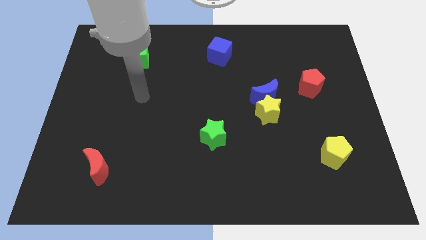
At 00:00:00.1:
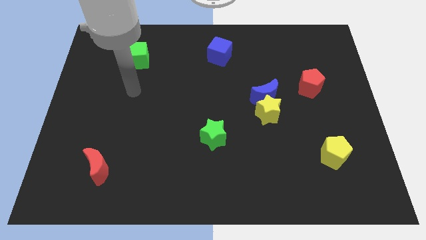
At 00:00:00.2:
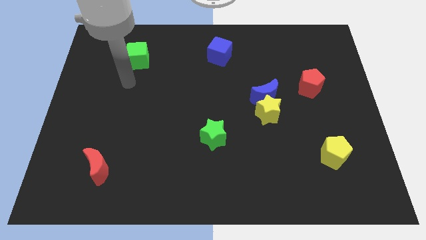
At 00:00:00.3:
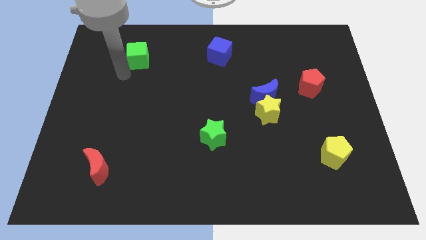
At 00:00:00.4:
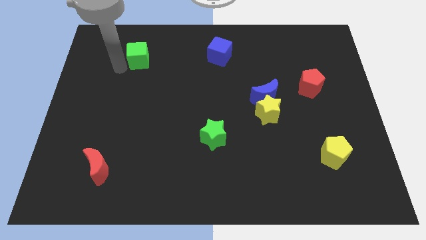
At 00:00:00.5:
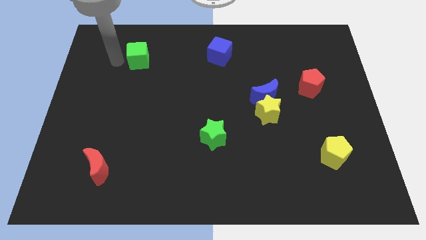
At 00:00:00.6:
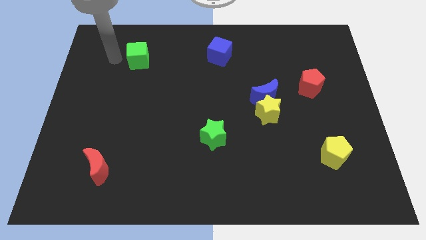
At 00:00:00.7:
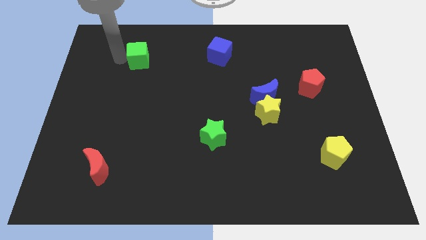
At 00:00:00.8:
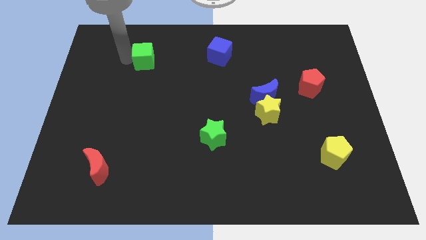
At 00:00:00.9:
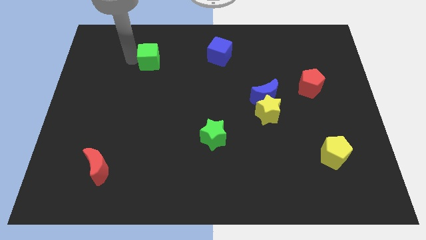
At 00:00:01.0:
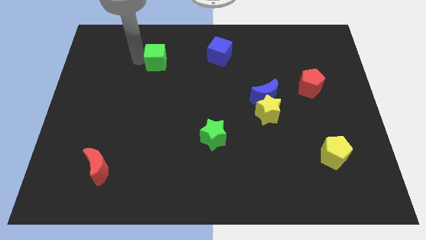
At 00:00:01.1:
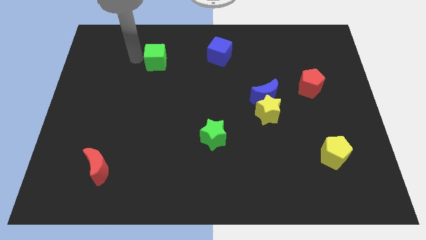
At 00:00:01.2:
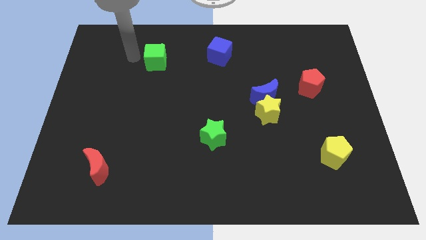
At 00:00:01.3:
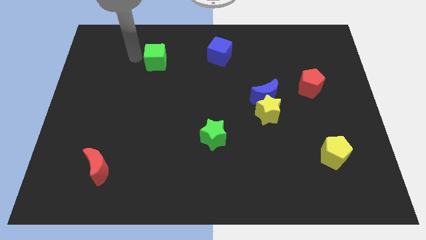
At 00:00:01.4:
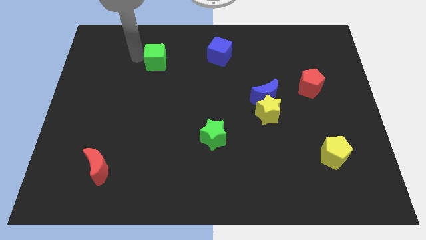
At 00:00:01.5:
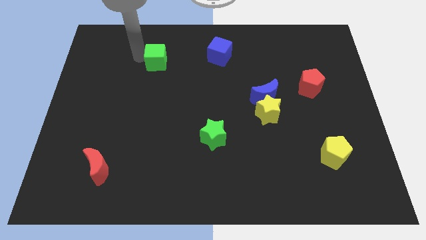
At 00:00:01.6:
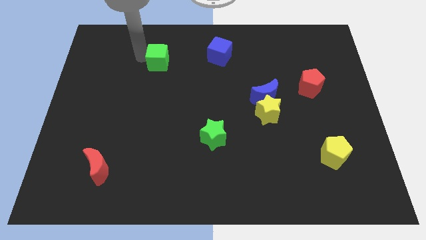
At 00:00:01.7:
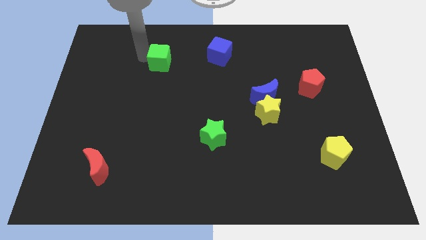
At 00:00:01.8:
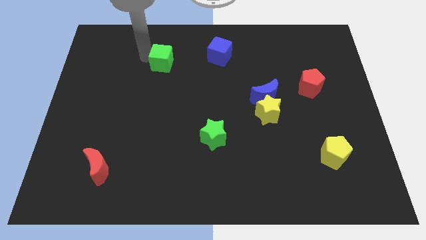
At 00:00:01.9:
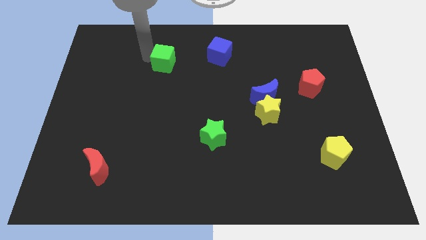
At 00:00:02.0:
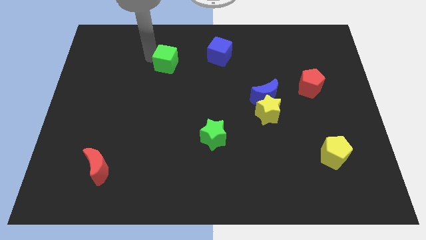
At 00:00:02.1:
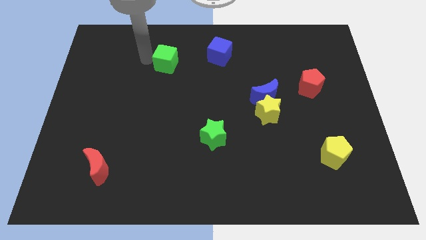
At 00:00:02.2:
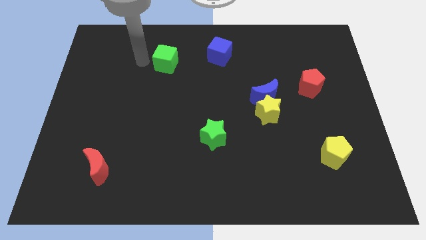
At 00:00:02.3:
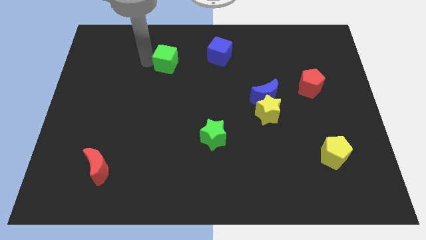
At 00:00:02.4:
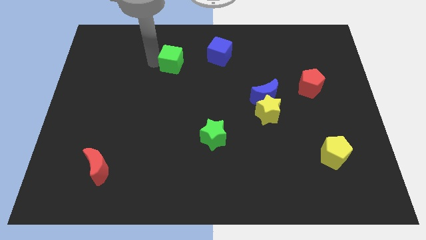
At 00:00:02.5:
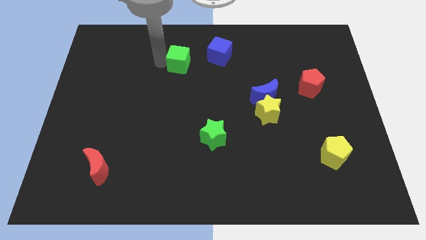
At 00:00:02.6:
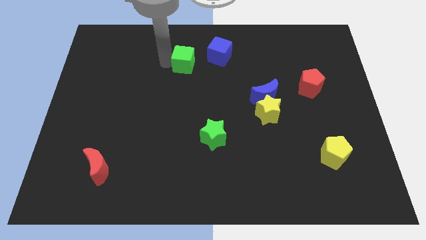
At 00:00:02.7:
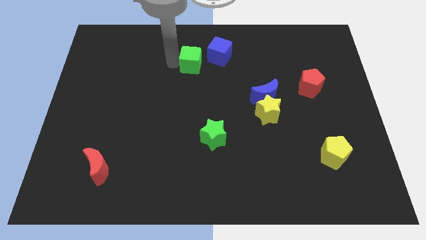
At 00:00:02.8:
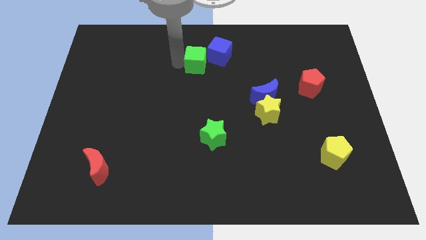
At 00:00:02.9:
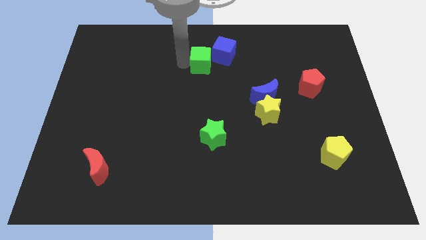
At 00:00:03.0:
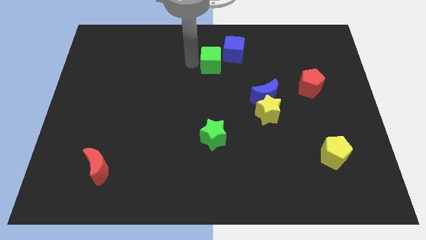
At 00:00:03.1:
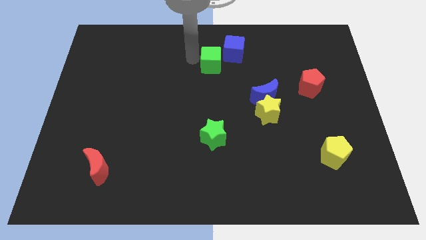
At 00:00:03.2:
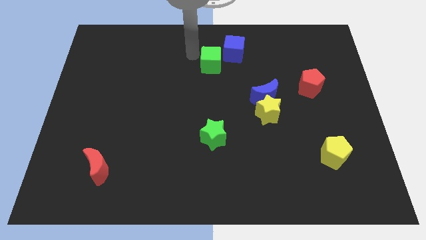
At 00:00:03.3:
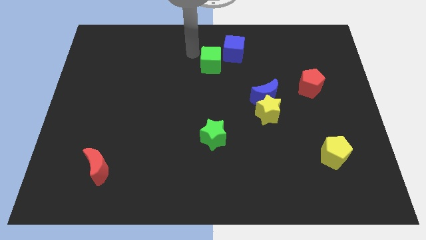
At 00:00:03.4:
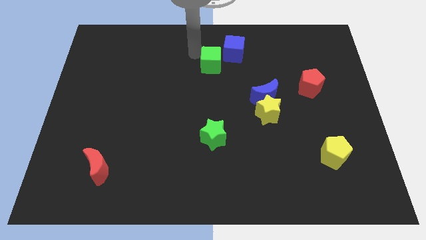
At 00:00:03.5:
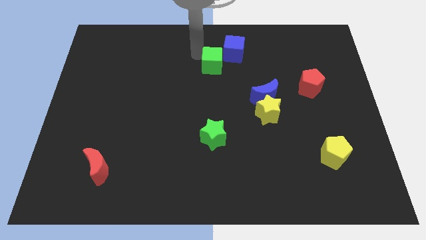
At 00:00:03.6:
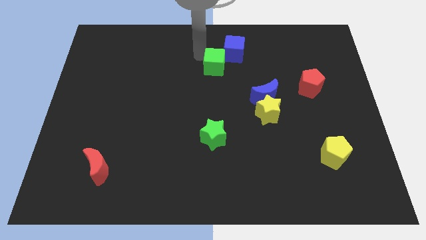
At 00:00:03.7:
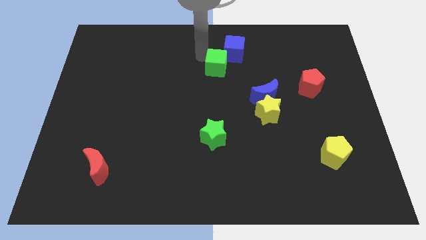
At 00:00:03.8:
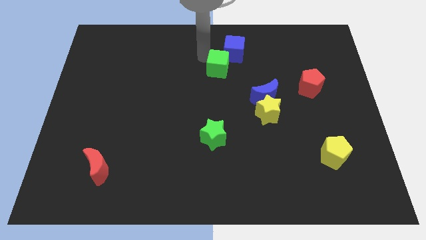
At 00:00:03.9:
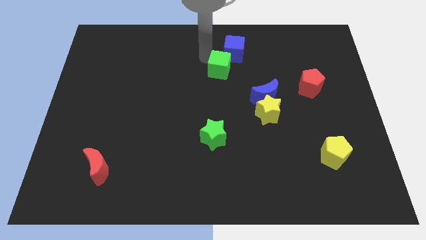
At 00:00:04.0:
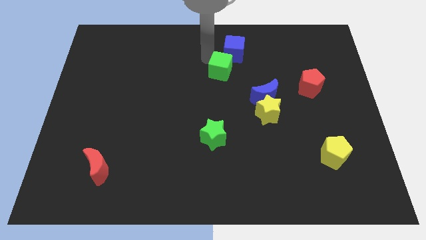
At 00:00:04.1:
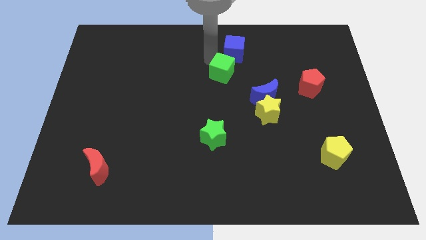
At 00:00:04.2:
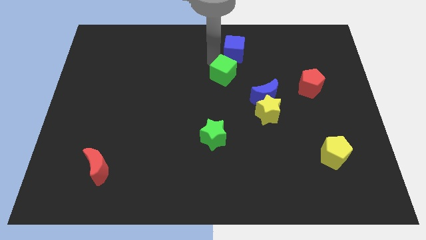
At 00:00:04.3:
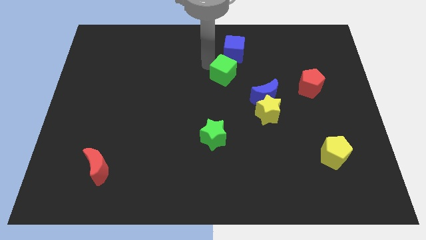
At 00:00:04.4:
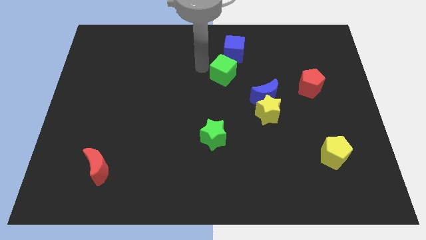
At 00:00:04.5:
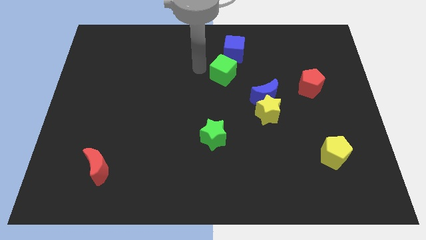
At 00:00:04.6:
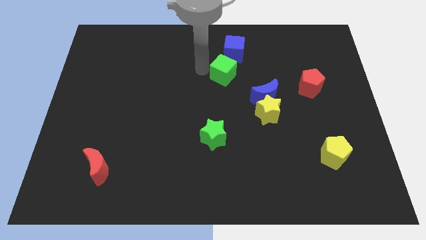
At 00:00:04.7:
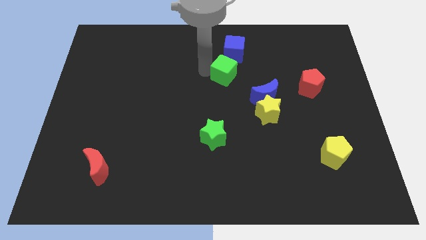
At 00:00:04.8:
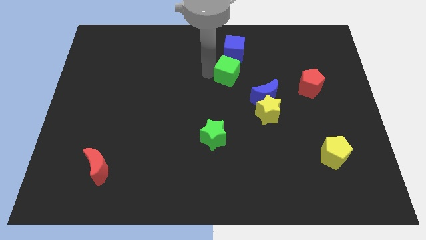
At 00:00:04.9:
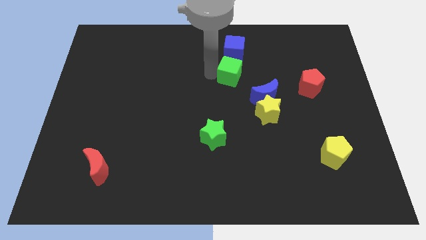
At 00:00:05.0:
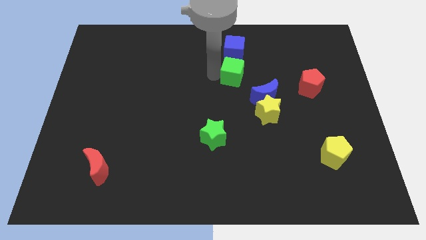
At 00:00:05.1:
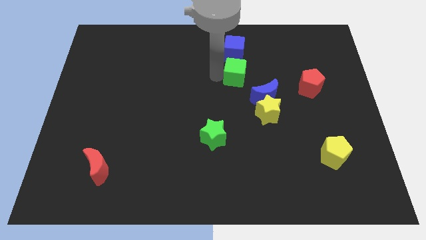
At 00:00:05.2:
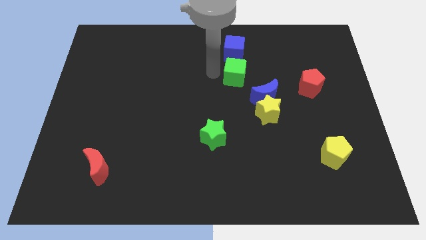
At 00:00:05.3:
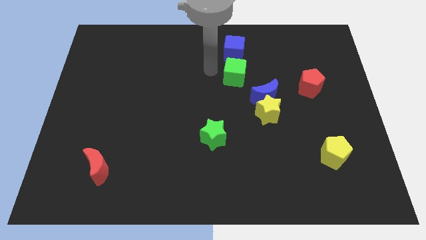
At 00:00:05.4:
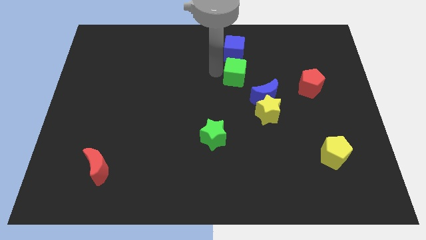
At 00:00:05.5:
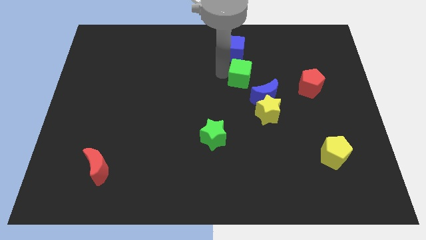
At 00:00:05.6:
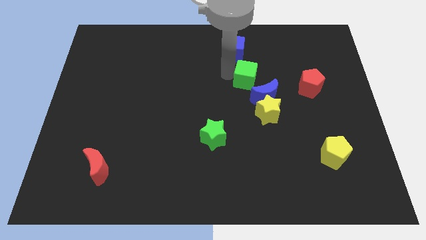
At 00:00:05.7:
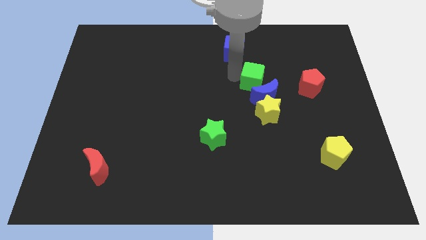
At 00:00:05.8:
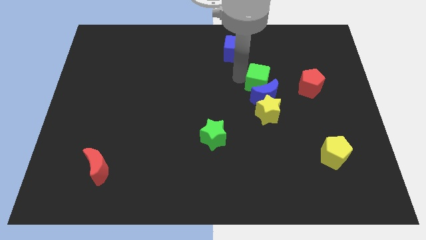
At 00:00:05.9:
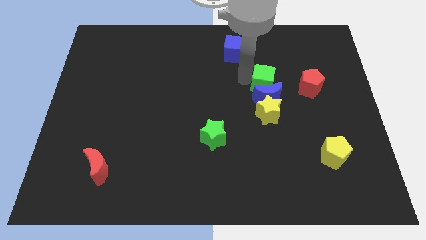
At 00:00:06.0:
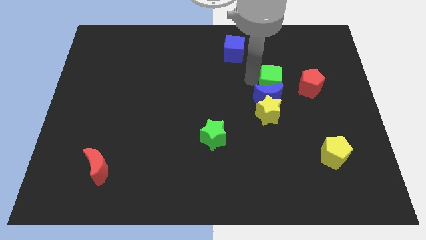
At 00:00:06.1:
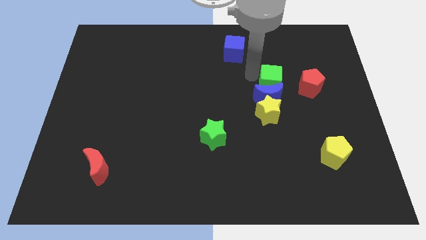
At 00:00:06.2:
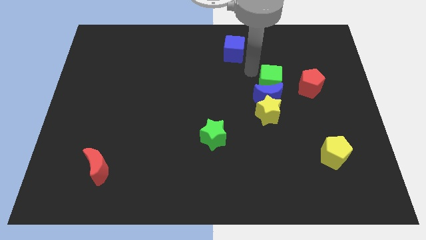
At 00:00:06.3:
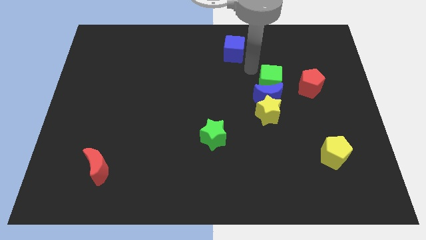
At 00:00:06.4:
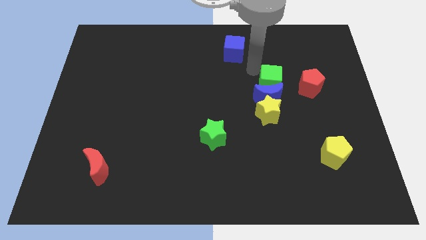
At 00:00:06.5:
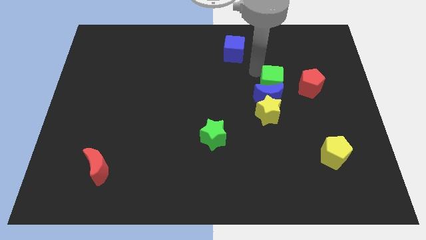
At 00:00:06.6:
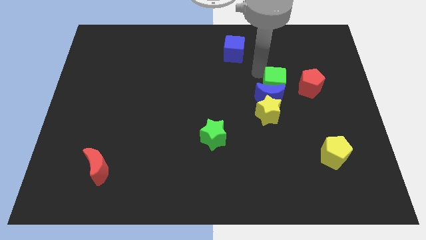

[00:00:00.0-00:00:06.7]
move the green cube to the top right of the yellow star

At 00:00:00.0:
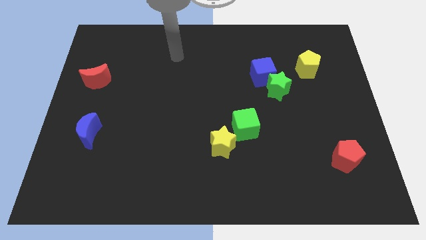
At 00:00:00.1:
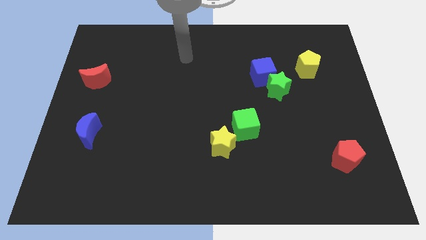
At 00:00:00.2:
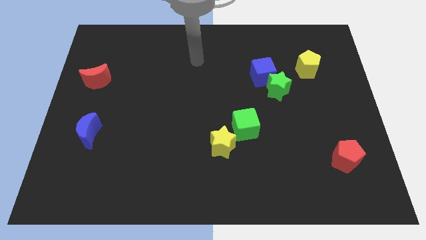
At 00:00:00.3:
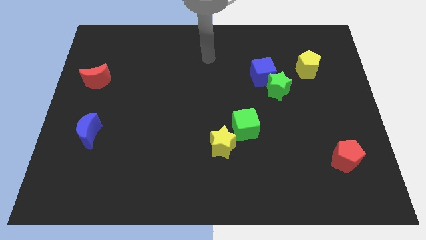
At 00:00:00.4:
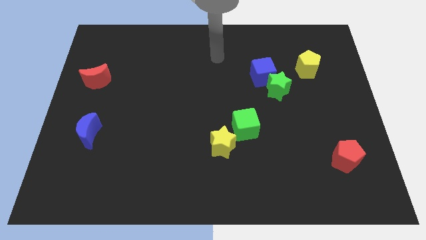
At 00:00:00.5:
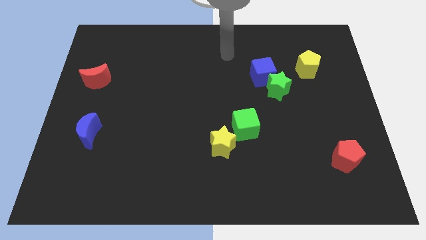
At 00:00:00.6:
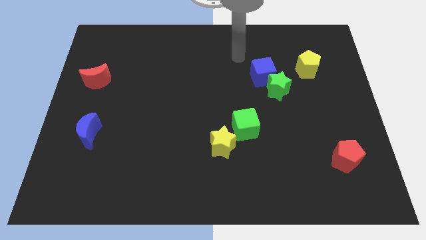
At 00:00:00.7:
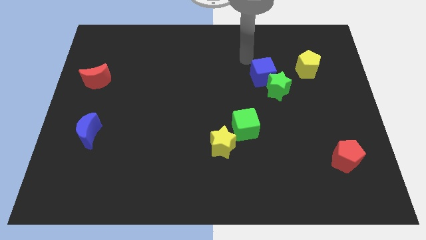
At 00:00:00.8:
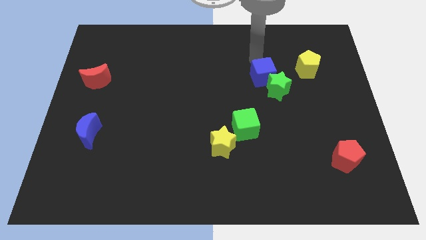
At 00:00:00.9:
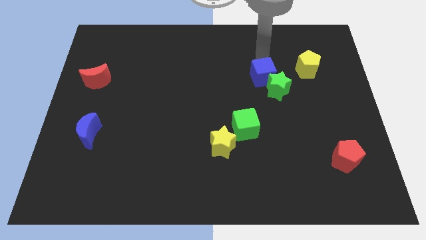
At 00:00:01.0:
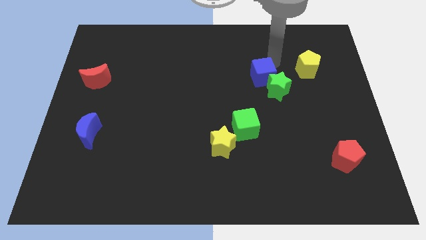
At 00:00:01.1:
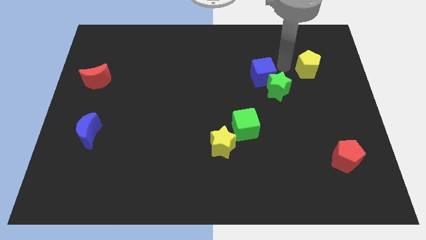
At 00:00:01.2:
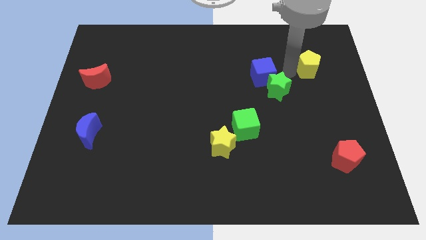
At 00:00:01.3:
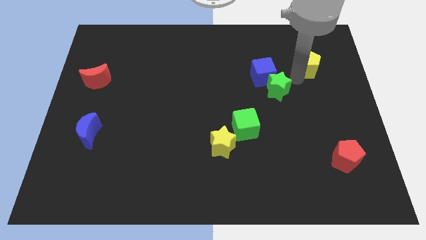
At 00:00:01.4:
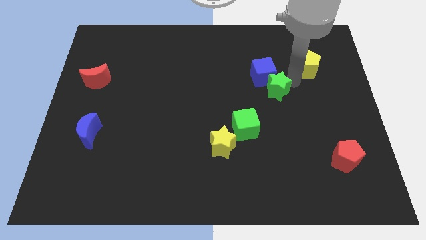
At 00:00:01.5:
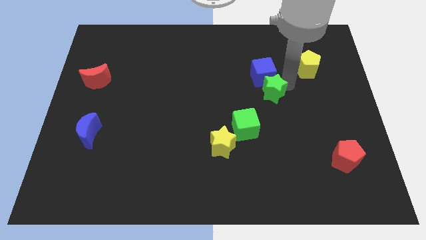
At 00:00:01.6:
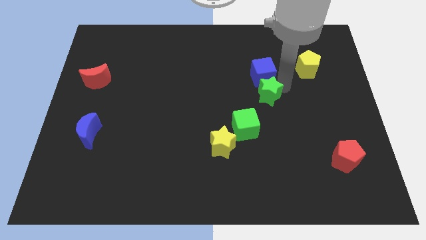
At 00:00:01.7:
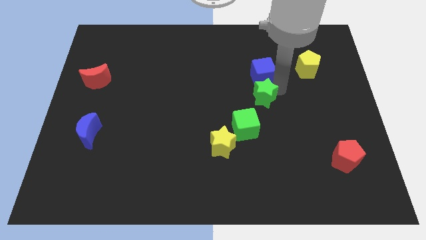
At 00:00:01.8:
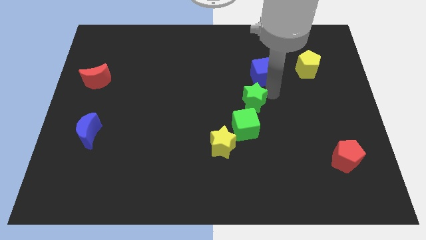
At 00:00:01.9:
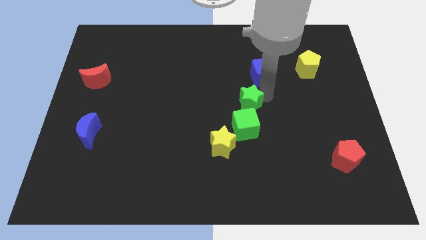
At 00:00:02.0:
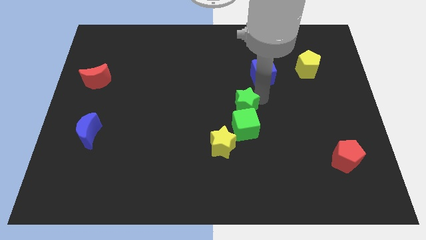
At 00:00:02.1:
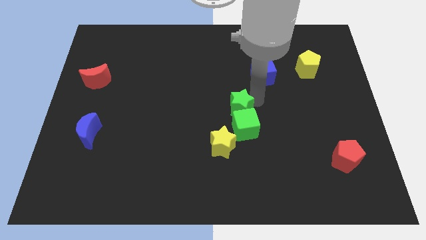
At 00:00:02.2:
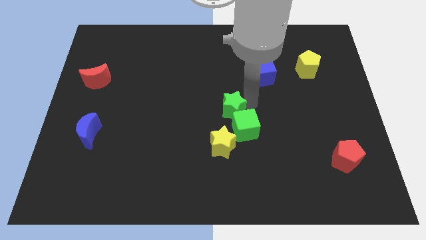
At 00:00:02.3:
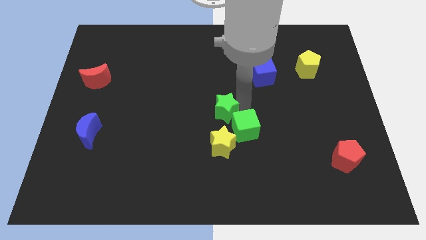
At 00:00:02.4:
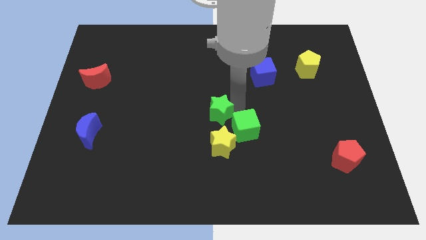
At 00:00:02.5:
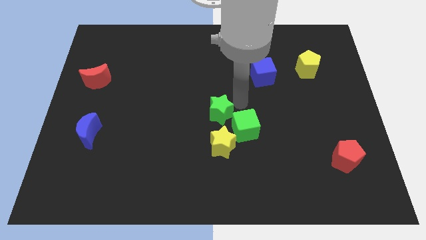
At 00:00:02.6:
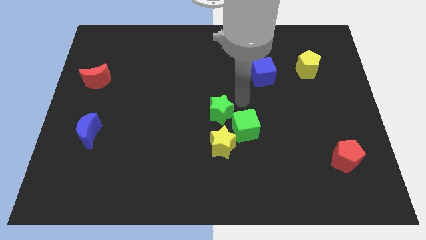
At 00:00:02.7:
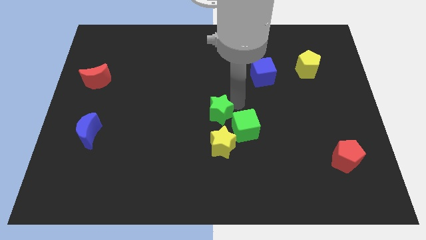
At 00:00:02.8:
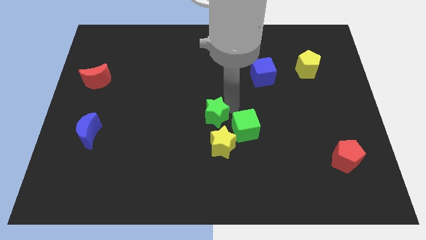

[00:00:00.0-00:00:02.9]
move the green star diagonally up and to the left of the yellow star
